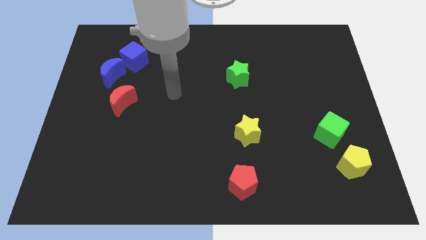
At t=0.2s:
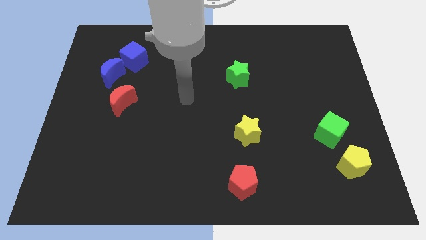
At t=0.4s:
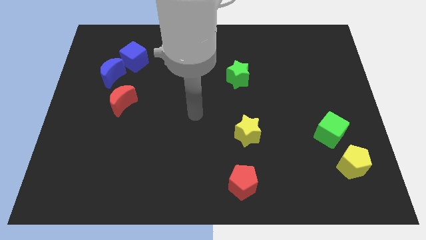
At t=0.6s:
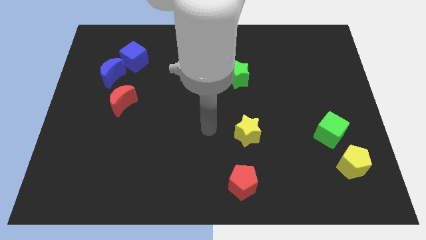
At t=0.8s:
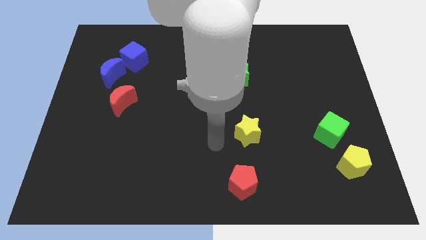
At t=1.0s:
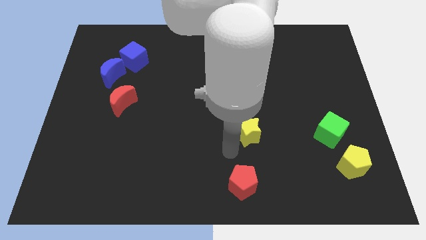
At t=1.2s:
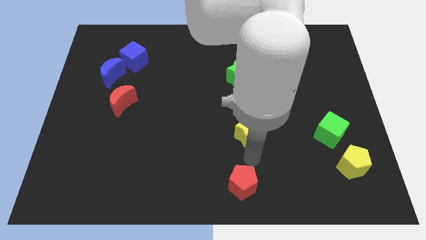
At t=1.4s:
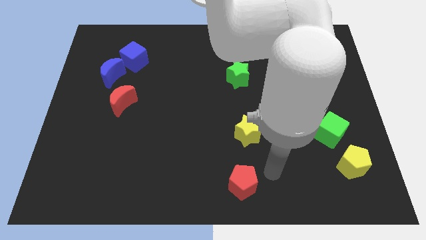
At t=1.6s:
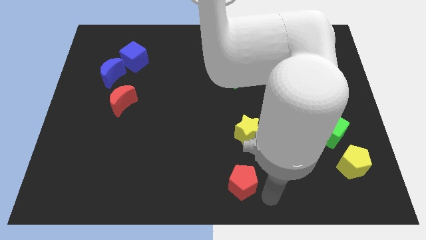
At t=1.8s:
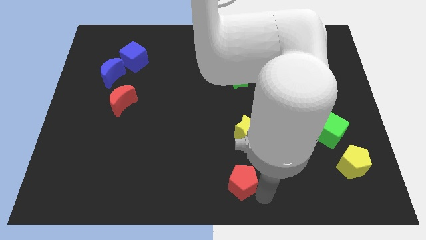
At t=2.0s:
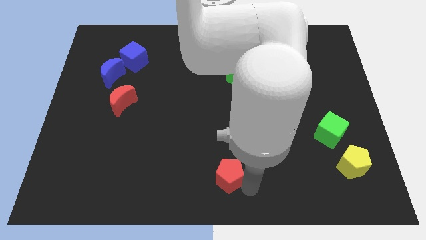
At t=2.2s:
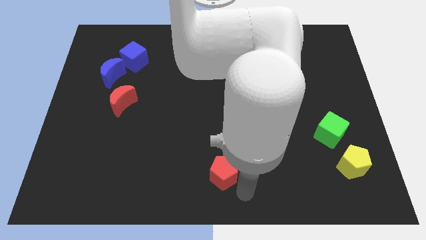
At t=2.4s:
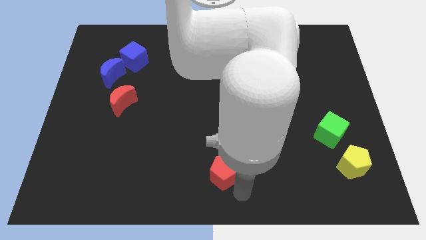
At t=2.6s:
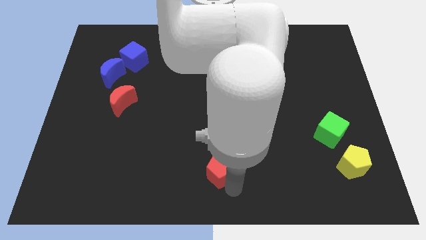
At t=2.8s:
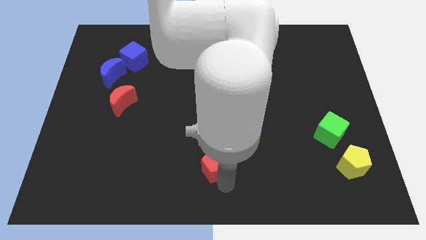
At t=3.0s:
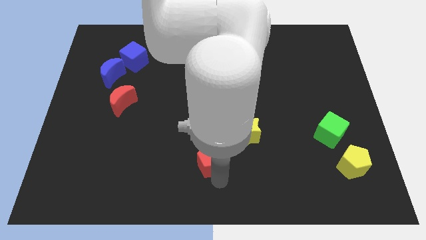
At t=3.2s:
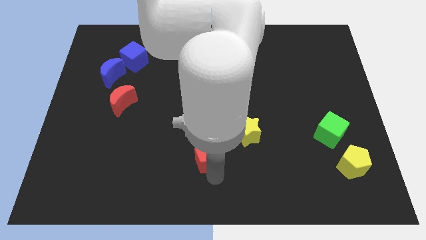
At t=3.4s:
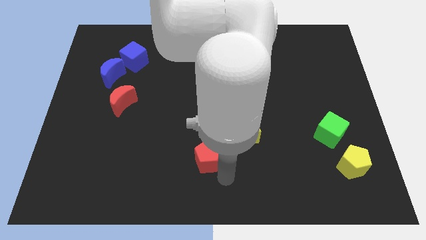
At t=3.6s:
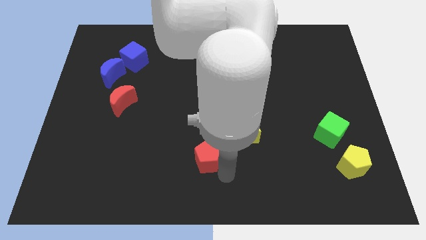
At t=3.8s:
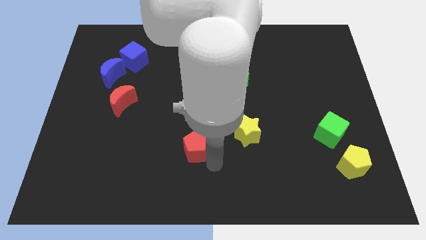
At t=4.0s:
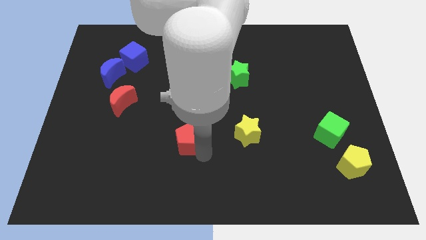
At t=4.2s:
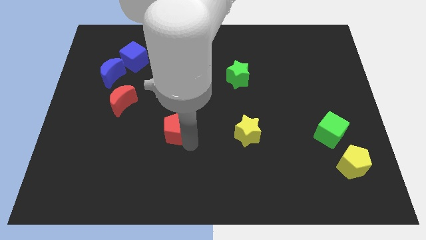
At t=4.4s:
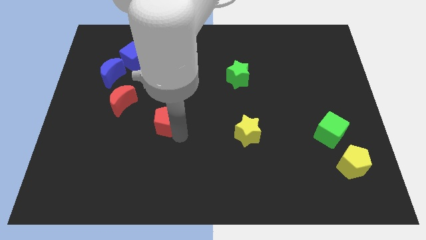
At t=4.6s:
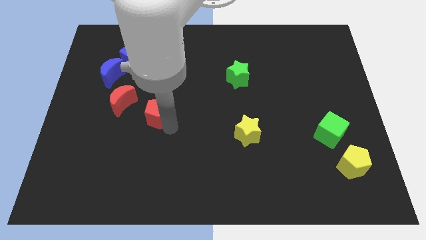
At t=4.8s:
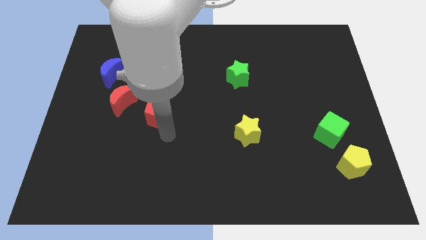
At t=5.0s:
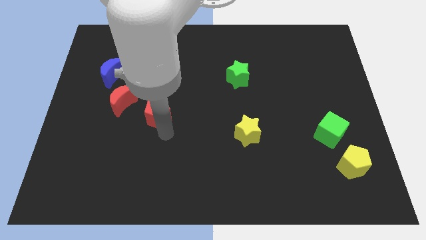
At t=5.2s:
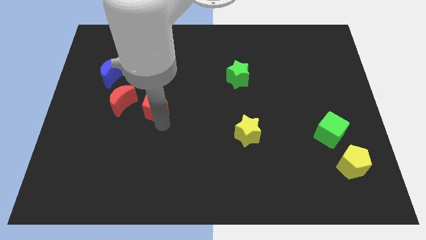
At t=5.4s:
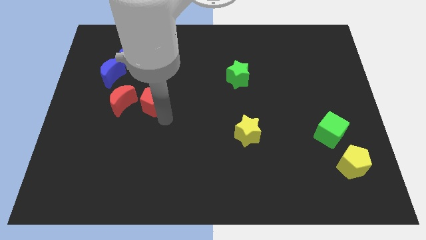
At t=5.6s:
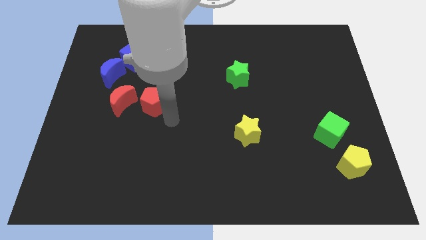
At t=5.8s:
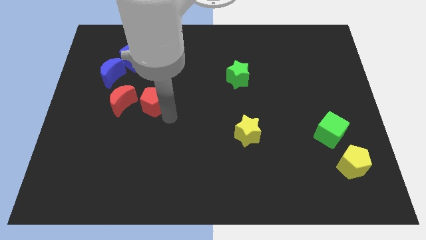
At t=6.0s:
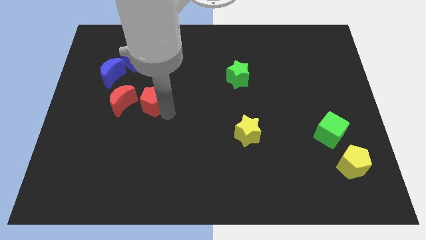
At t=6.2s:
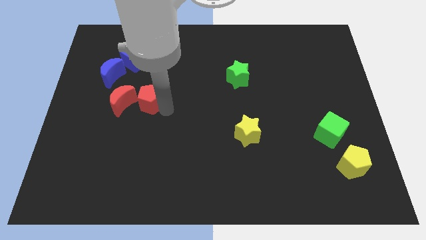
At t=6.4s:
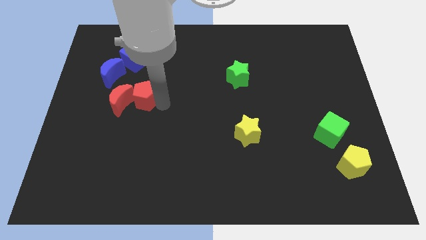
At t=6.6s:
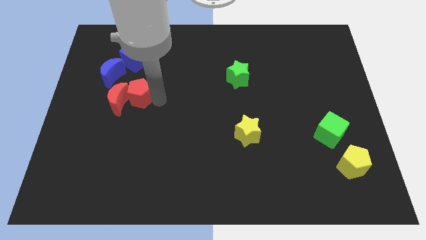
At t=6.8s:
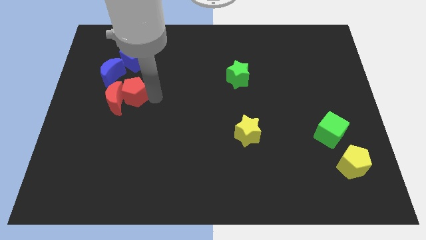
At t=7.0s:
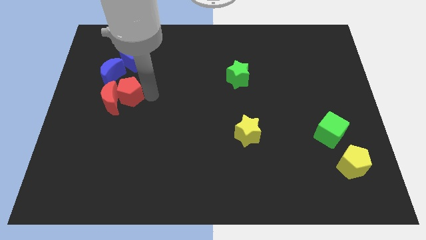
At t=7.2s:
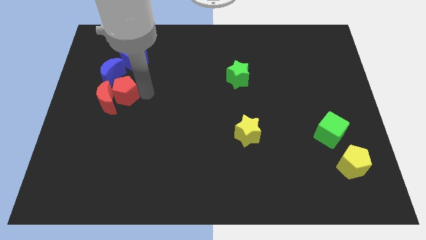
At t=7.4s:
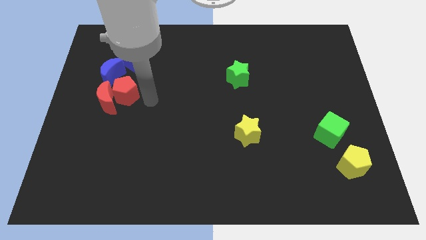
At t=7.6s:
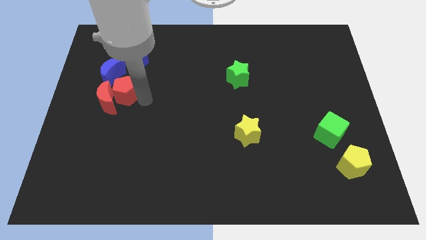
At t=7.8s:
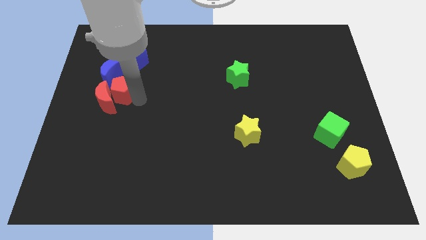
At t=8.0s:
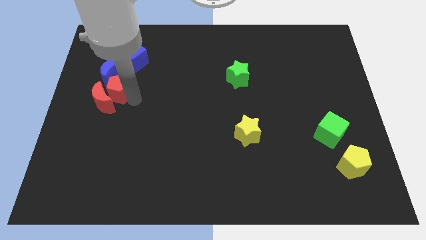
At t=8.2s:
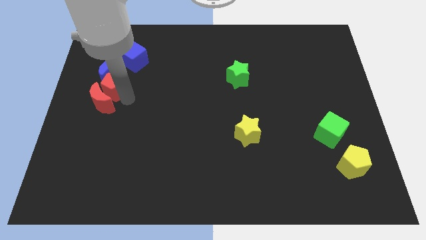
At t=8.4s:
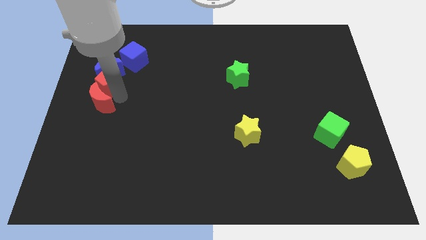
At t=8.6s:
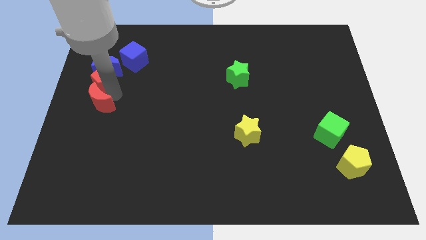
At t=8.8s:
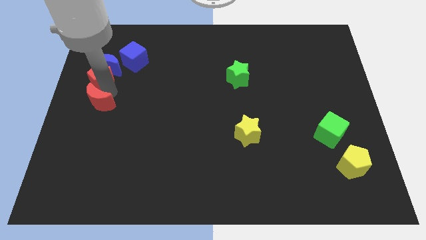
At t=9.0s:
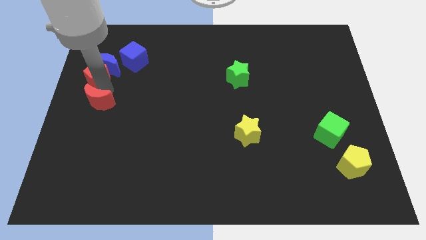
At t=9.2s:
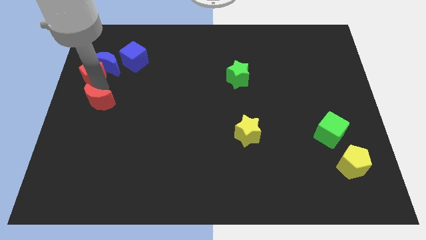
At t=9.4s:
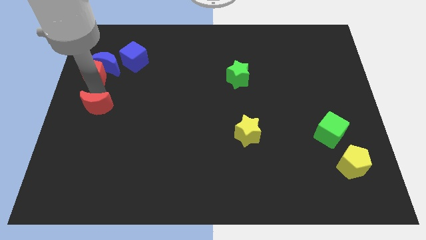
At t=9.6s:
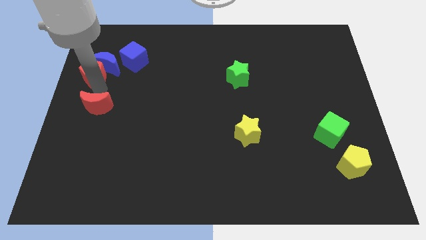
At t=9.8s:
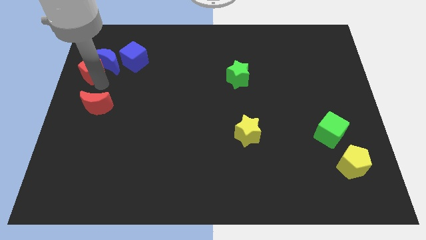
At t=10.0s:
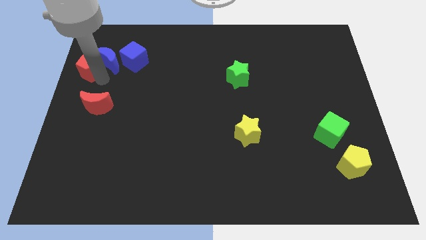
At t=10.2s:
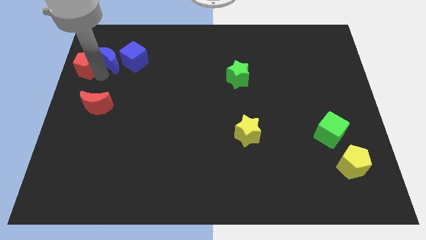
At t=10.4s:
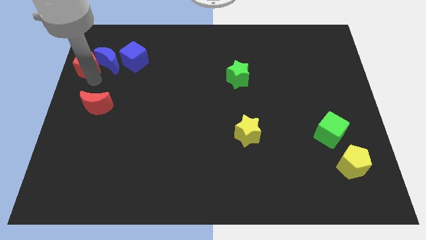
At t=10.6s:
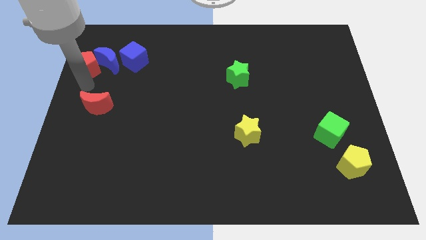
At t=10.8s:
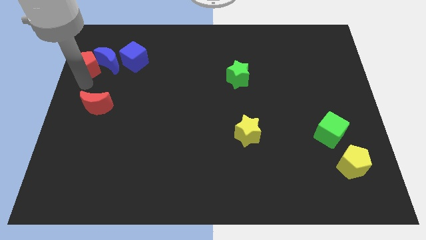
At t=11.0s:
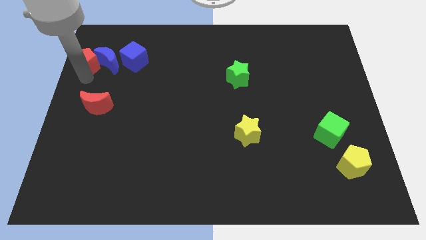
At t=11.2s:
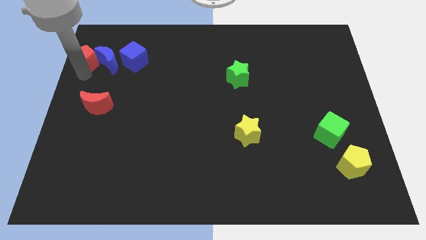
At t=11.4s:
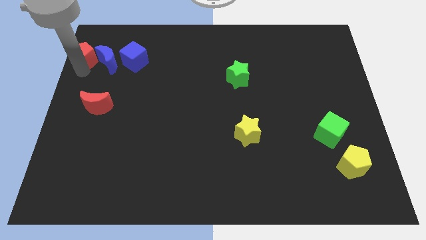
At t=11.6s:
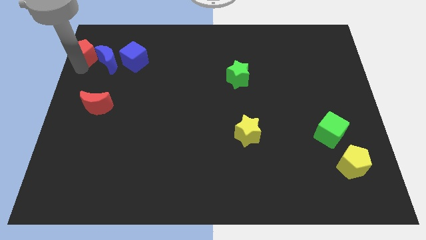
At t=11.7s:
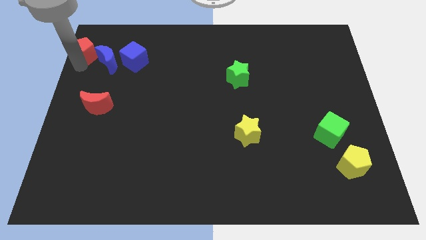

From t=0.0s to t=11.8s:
move the red pentagon to the upper left corner
